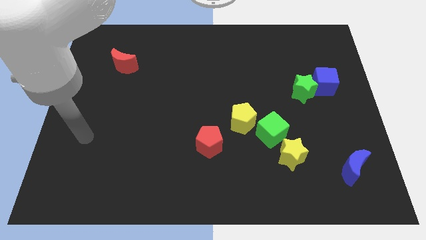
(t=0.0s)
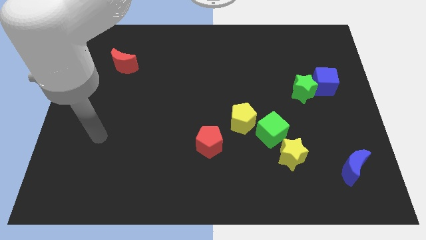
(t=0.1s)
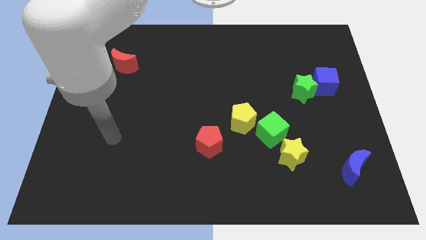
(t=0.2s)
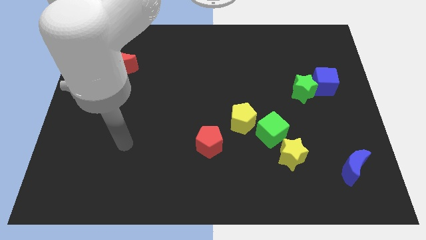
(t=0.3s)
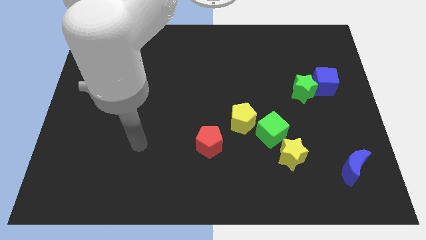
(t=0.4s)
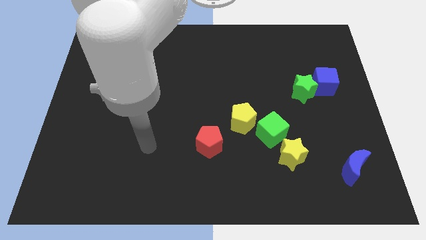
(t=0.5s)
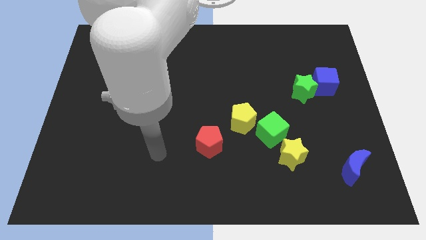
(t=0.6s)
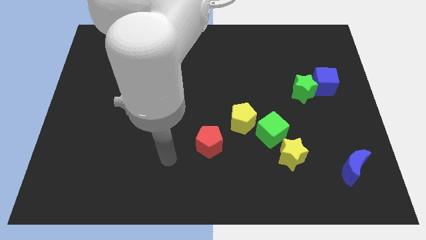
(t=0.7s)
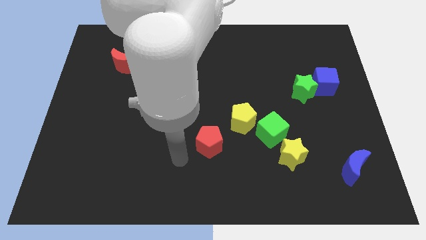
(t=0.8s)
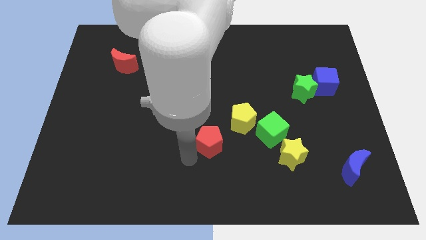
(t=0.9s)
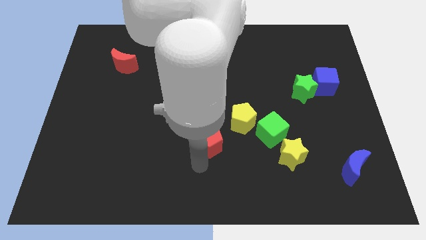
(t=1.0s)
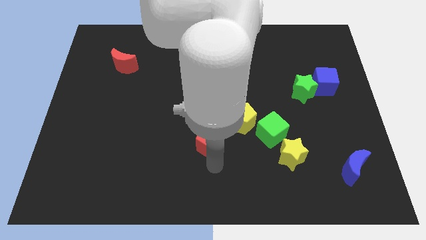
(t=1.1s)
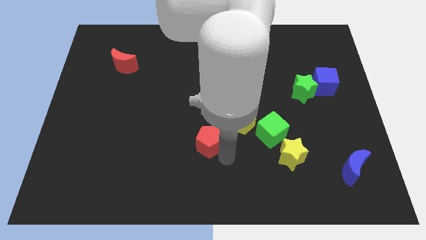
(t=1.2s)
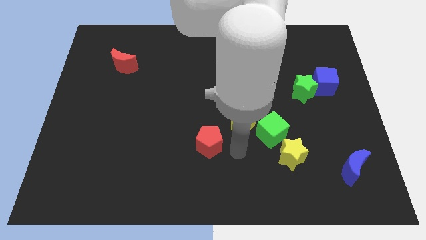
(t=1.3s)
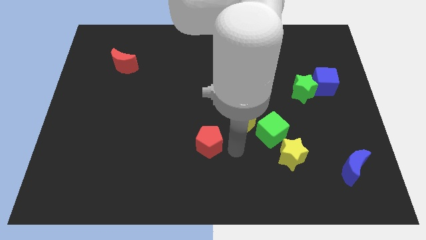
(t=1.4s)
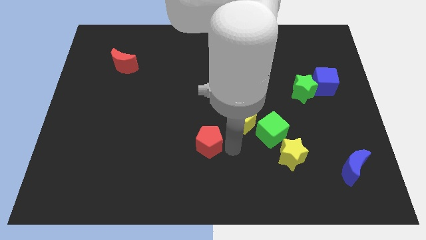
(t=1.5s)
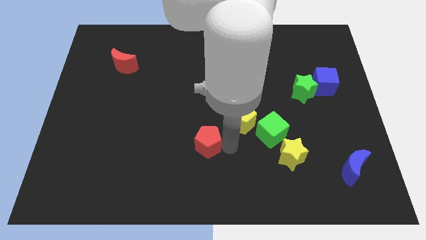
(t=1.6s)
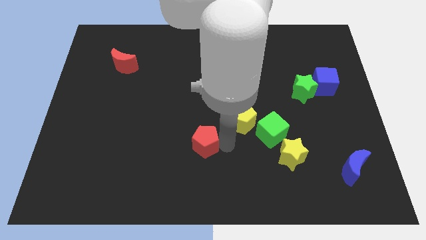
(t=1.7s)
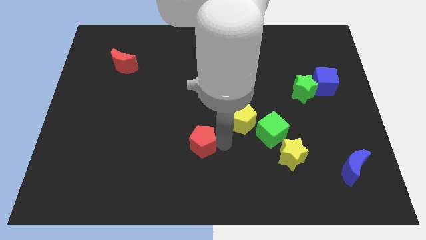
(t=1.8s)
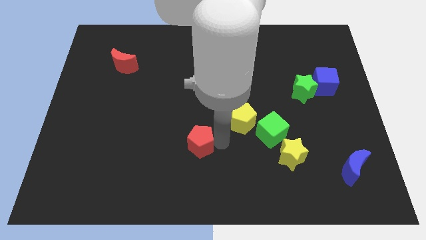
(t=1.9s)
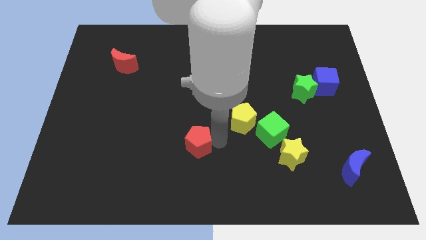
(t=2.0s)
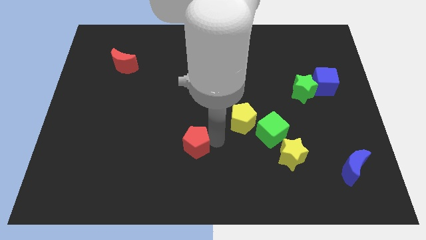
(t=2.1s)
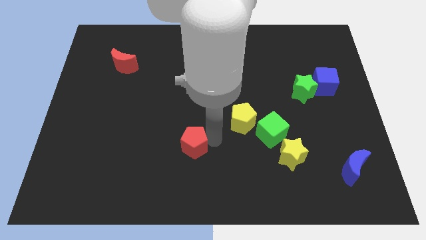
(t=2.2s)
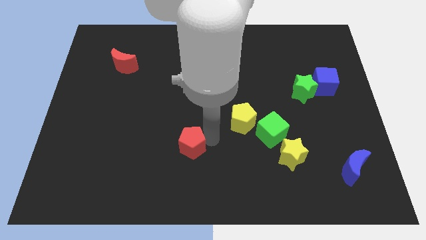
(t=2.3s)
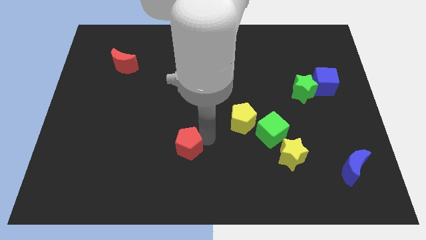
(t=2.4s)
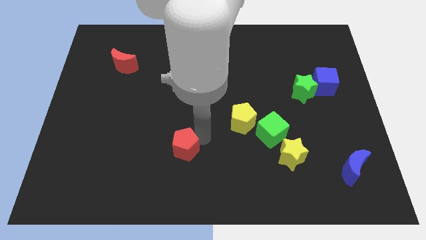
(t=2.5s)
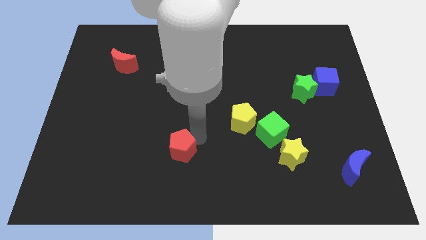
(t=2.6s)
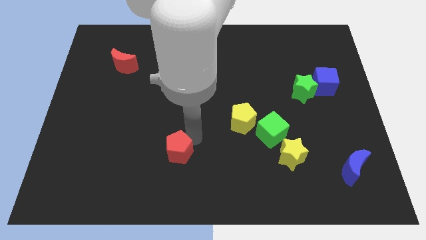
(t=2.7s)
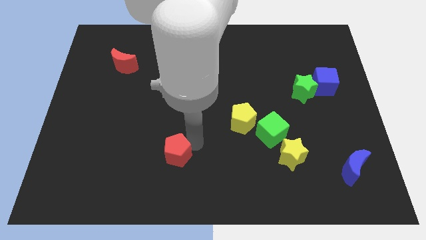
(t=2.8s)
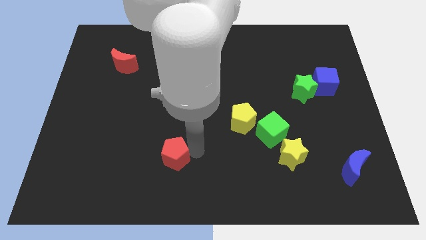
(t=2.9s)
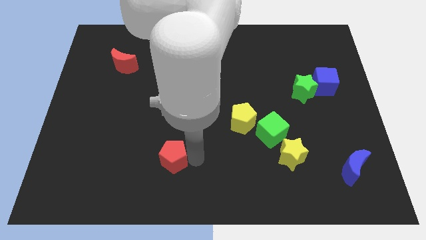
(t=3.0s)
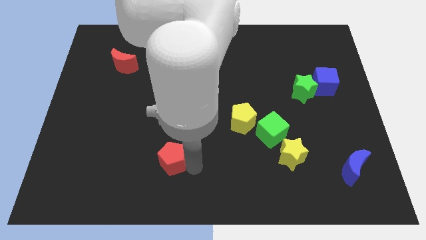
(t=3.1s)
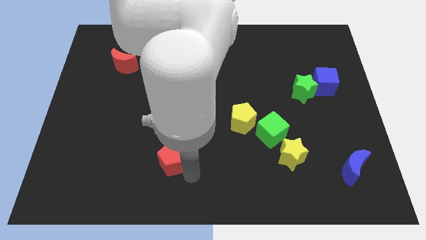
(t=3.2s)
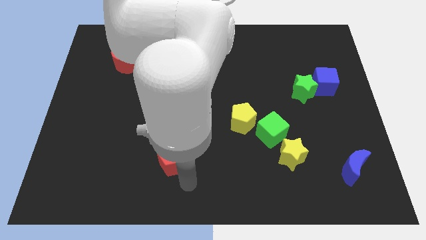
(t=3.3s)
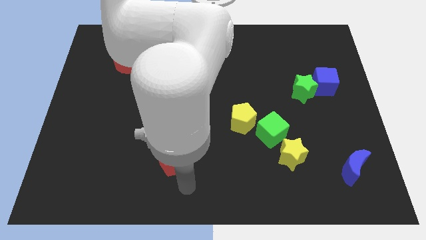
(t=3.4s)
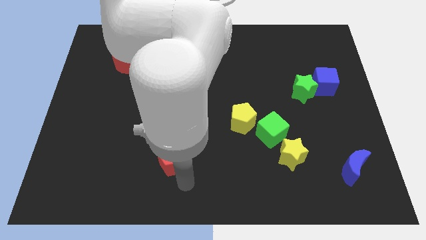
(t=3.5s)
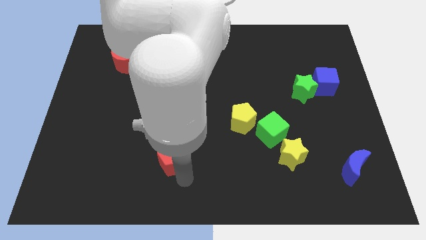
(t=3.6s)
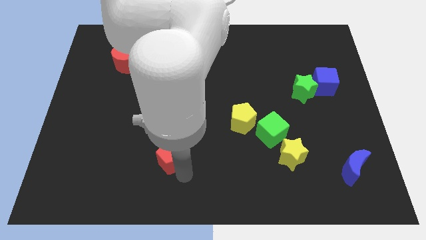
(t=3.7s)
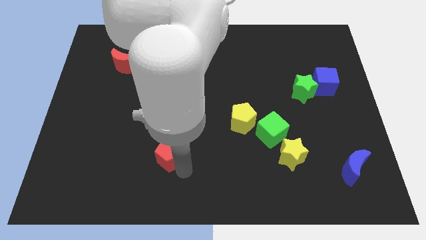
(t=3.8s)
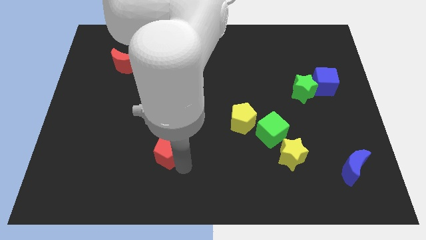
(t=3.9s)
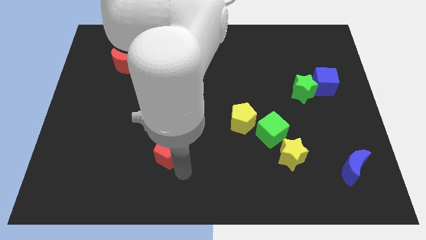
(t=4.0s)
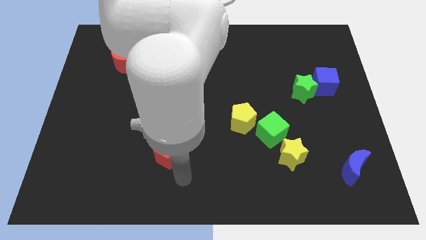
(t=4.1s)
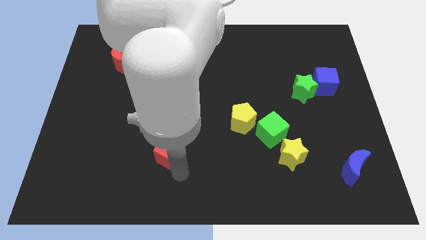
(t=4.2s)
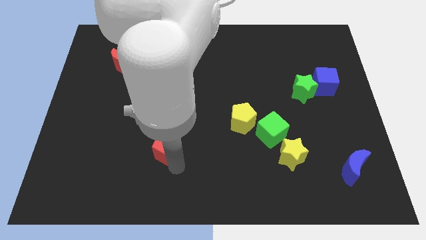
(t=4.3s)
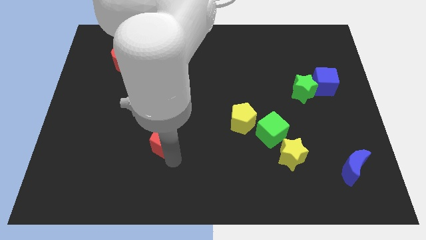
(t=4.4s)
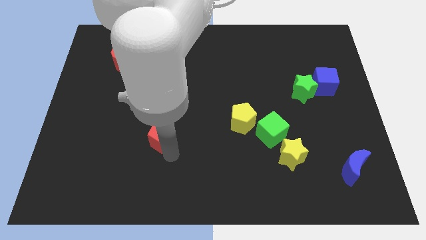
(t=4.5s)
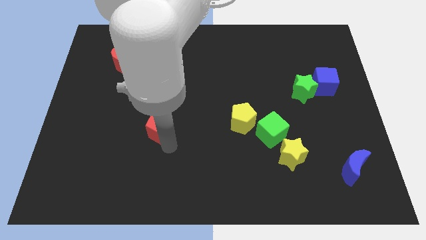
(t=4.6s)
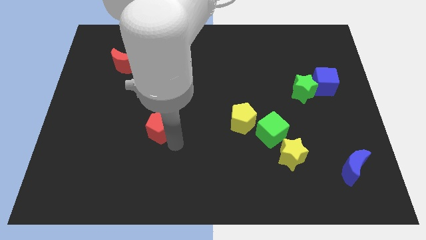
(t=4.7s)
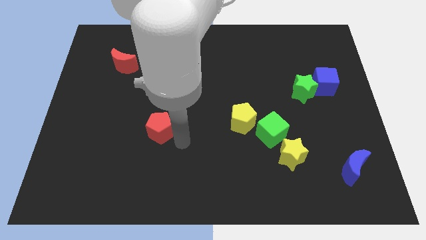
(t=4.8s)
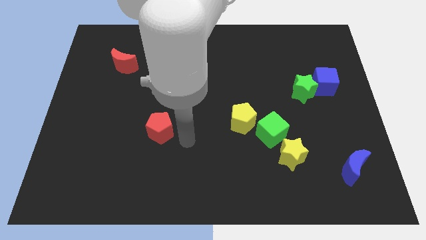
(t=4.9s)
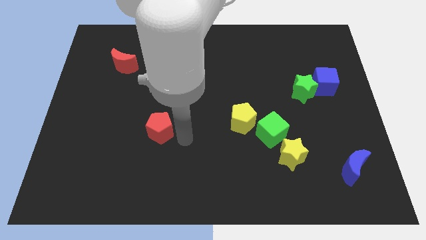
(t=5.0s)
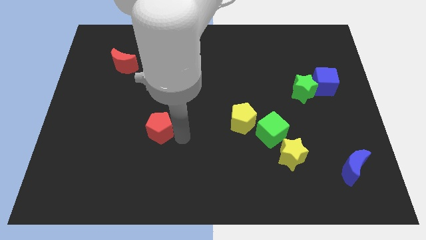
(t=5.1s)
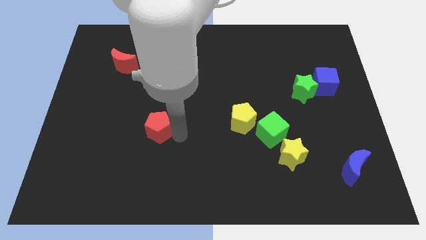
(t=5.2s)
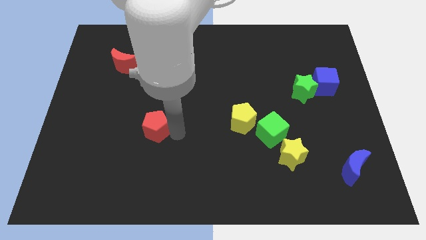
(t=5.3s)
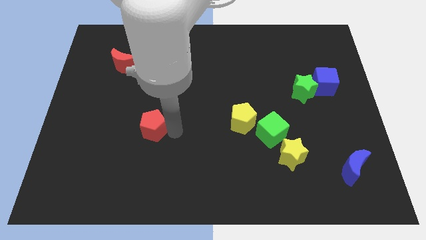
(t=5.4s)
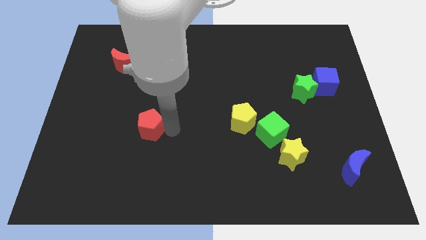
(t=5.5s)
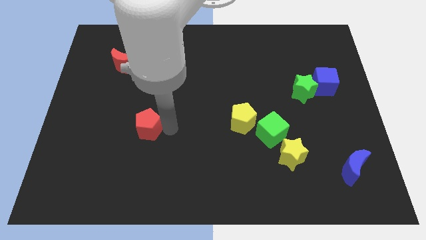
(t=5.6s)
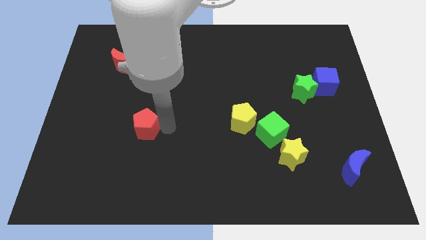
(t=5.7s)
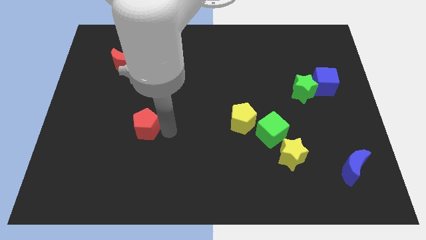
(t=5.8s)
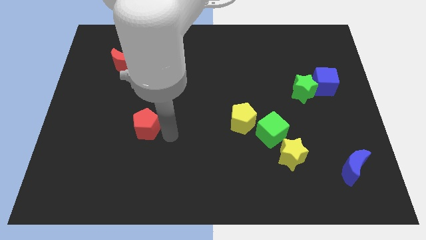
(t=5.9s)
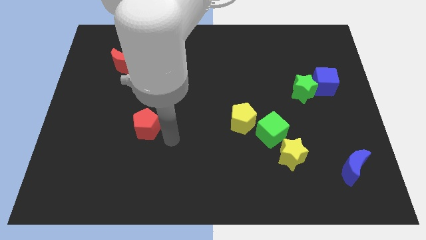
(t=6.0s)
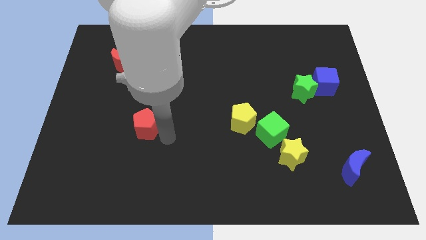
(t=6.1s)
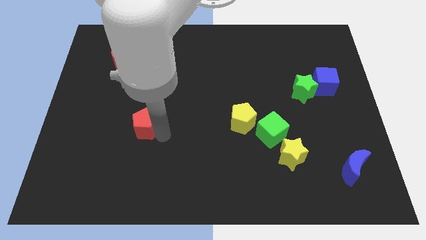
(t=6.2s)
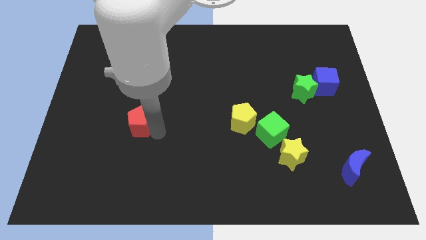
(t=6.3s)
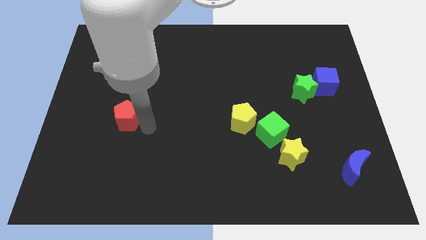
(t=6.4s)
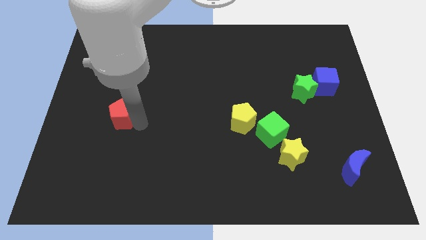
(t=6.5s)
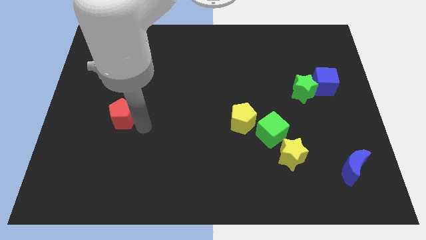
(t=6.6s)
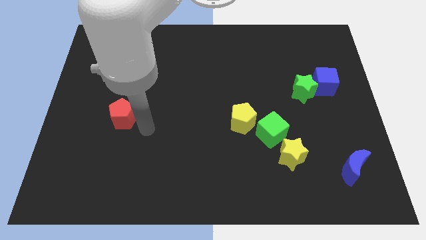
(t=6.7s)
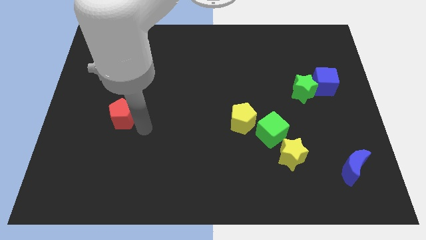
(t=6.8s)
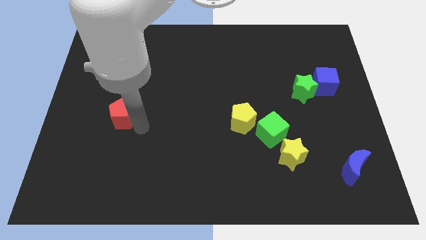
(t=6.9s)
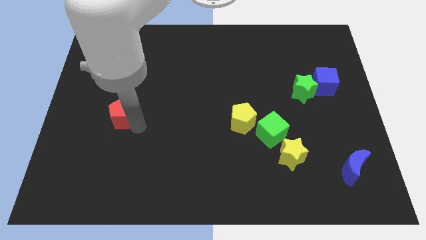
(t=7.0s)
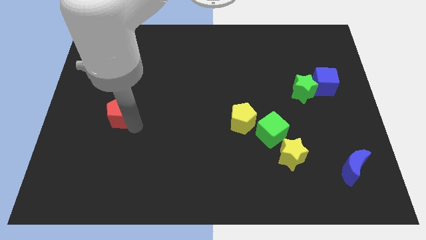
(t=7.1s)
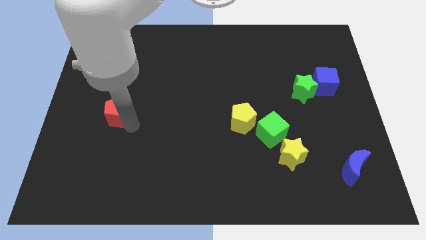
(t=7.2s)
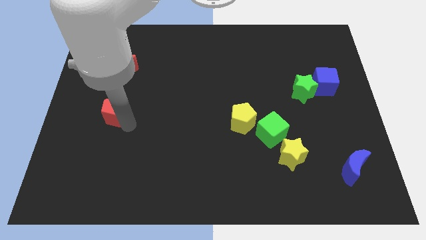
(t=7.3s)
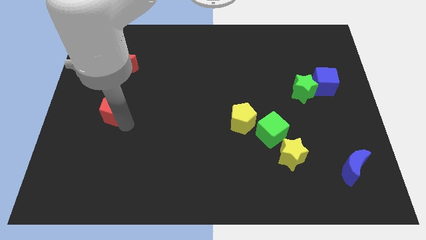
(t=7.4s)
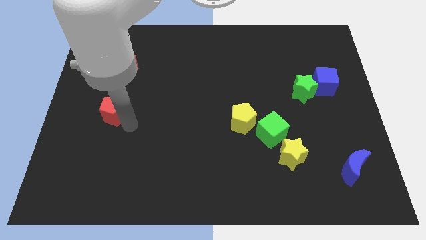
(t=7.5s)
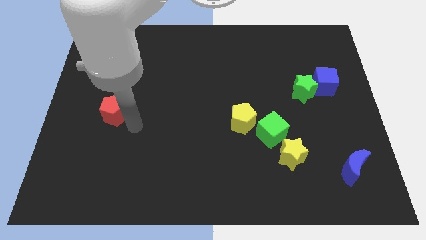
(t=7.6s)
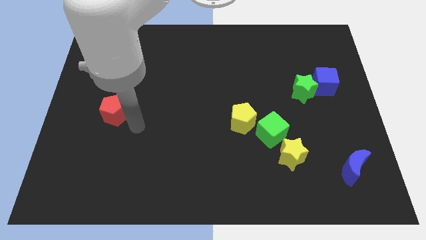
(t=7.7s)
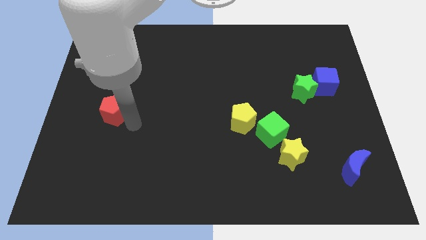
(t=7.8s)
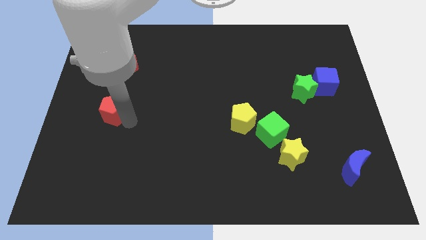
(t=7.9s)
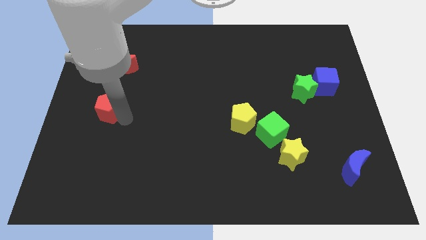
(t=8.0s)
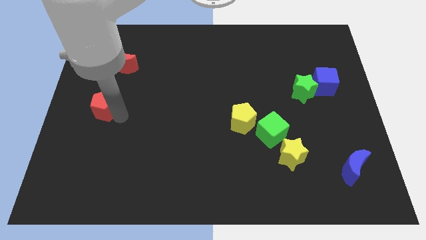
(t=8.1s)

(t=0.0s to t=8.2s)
move the red pentagon to the left side of the board
